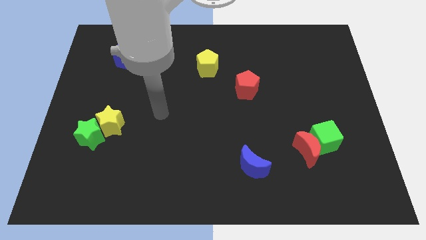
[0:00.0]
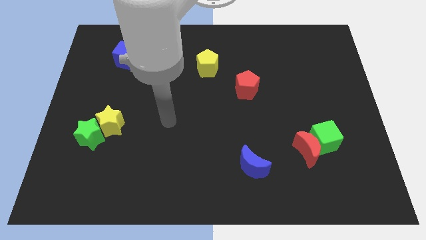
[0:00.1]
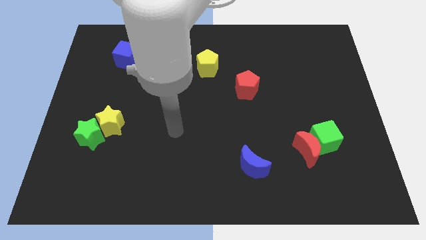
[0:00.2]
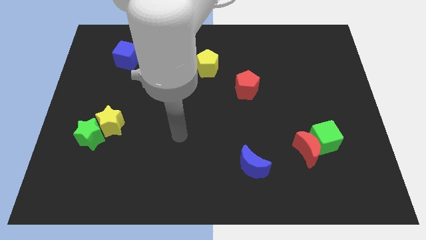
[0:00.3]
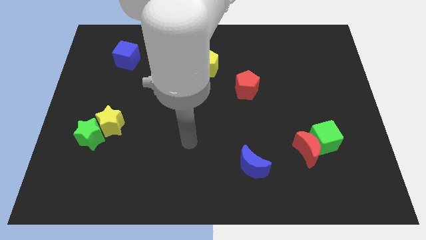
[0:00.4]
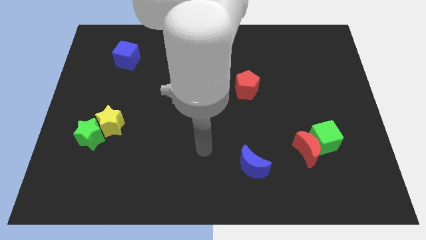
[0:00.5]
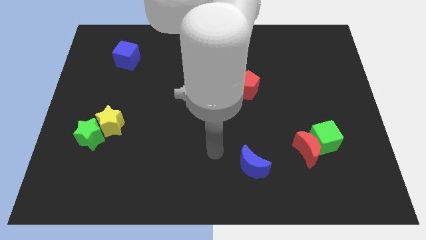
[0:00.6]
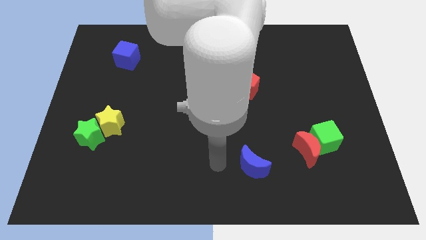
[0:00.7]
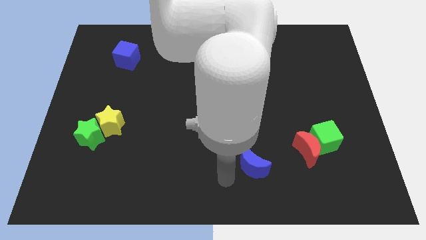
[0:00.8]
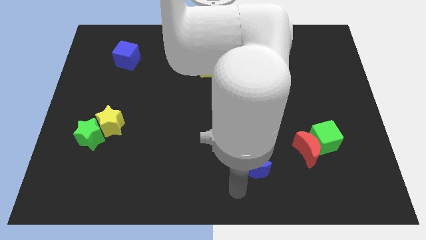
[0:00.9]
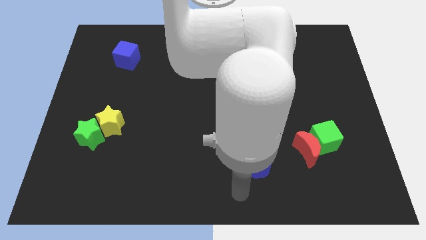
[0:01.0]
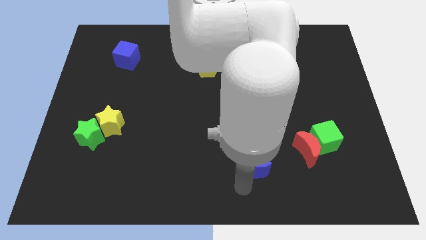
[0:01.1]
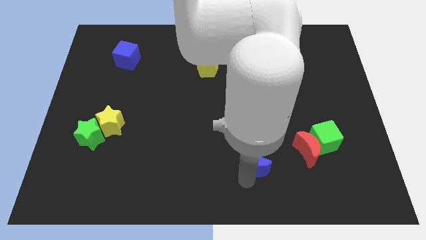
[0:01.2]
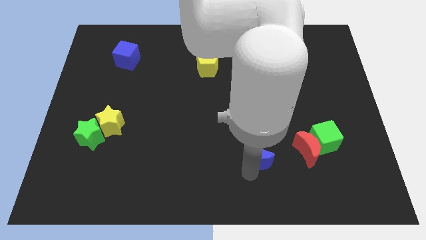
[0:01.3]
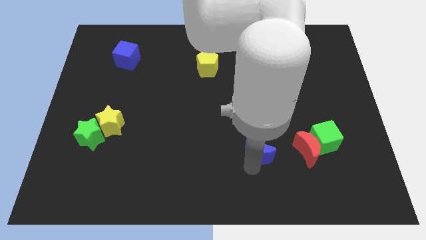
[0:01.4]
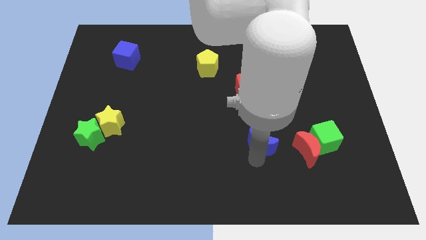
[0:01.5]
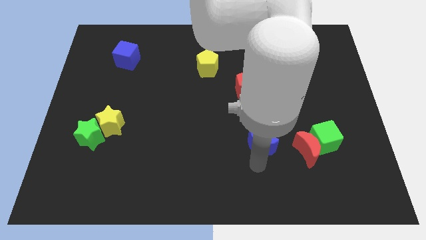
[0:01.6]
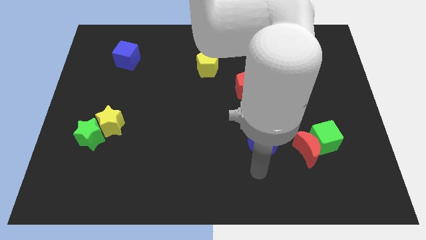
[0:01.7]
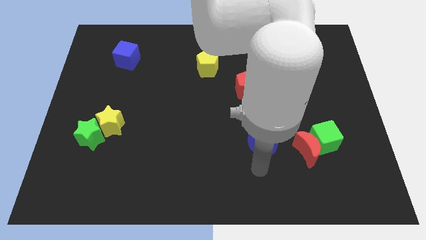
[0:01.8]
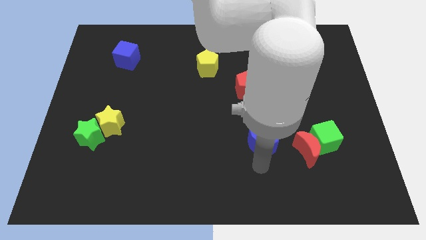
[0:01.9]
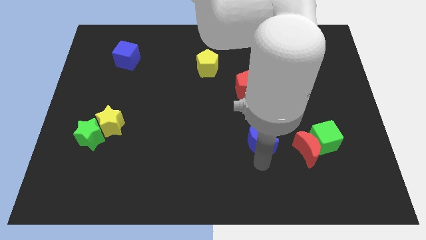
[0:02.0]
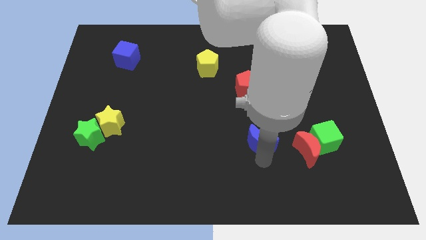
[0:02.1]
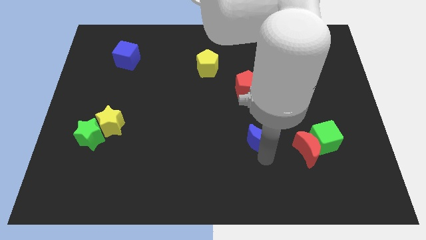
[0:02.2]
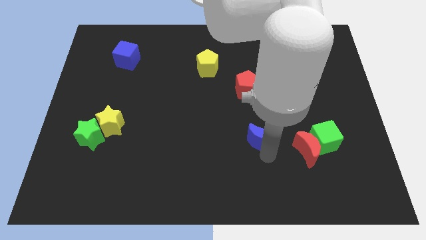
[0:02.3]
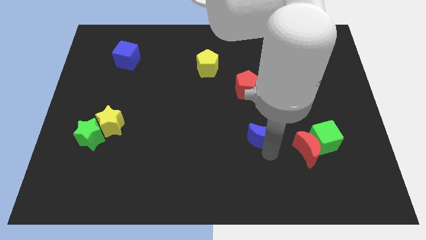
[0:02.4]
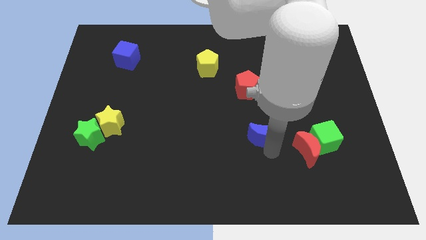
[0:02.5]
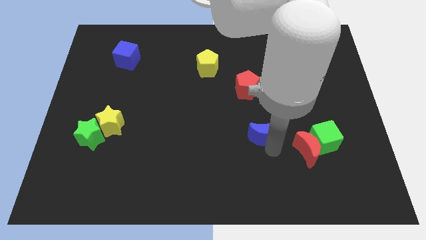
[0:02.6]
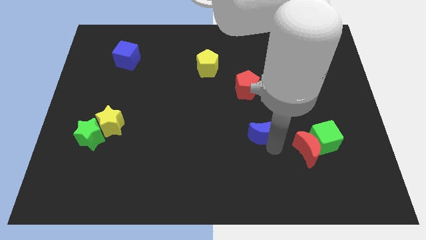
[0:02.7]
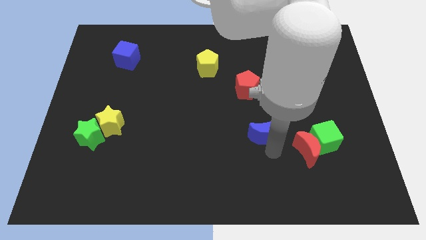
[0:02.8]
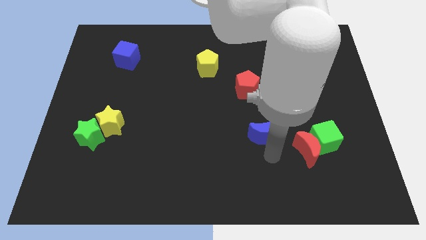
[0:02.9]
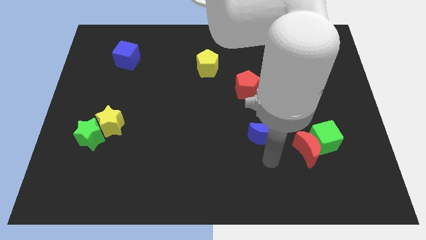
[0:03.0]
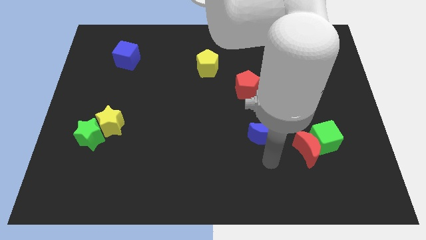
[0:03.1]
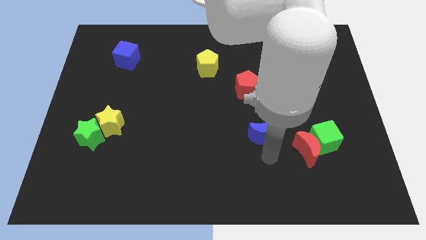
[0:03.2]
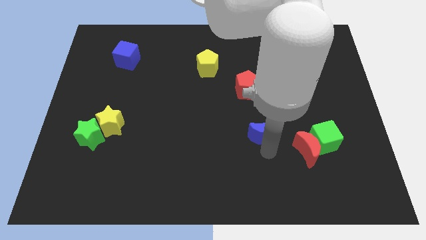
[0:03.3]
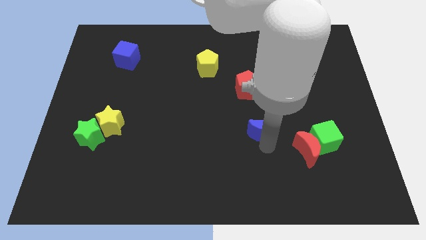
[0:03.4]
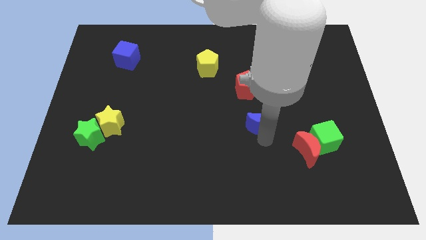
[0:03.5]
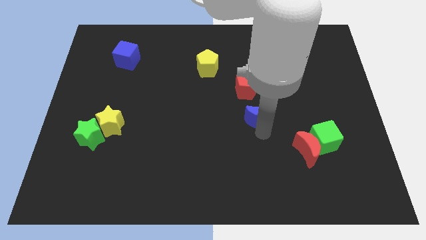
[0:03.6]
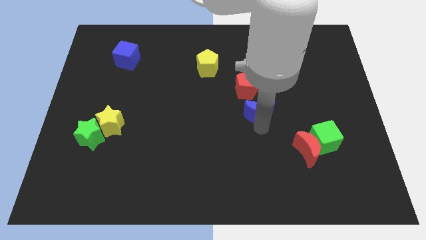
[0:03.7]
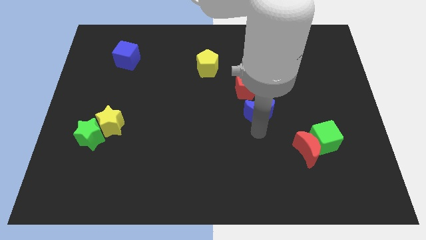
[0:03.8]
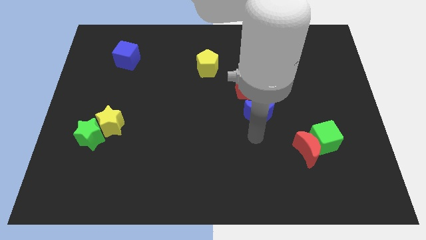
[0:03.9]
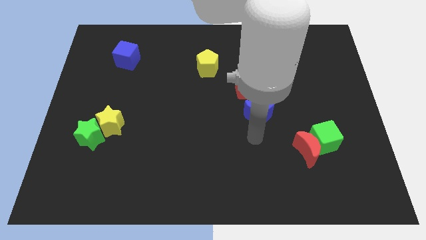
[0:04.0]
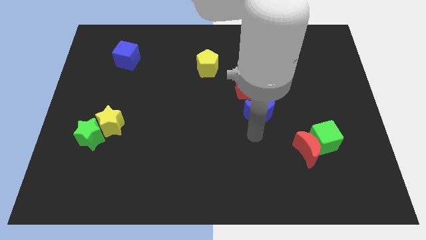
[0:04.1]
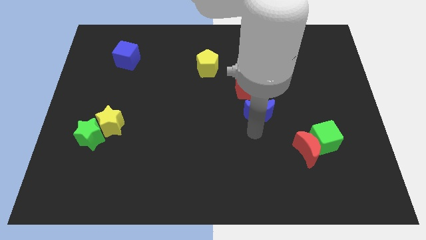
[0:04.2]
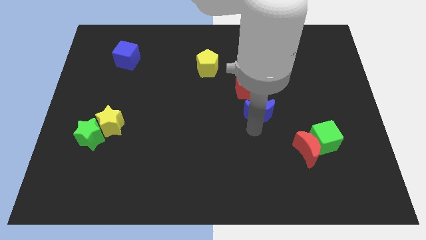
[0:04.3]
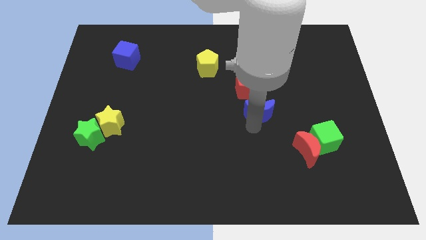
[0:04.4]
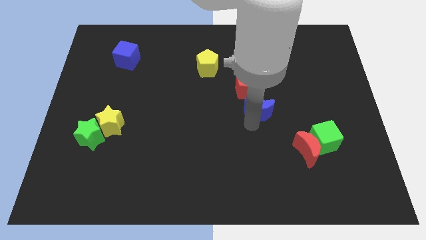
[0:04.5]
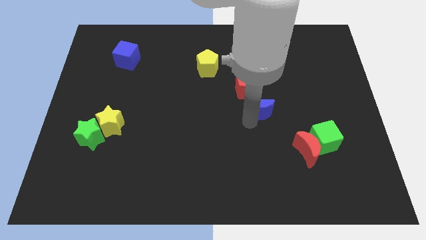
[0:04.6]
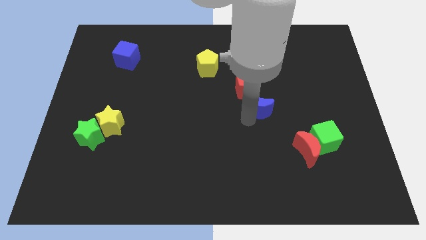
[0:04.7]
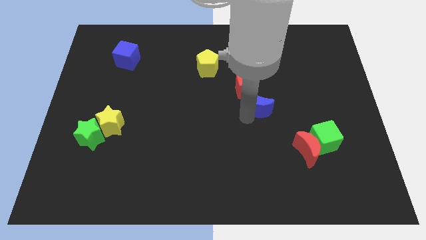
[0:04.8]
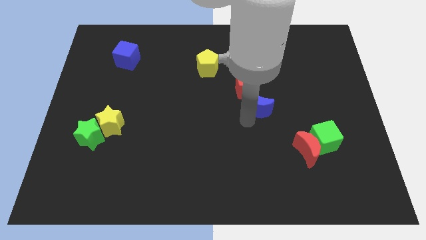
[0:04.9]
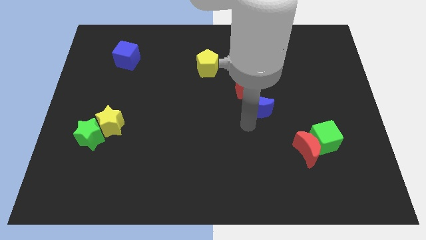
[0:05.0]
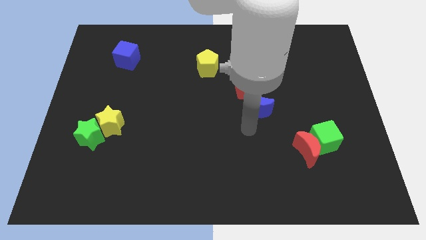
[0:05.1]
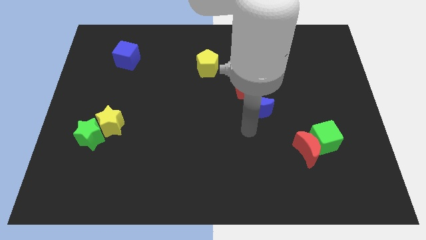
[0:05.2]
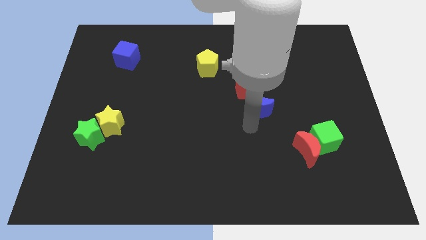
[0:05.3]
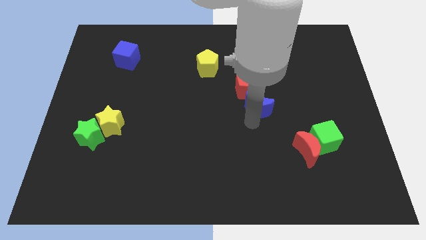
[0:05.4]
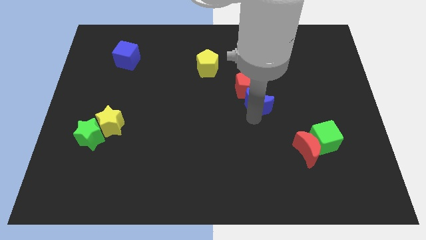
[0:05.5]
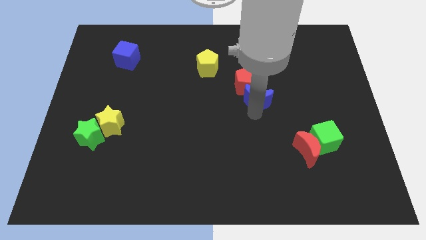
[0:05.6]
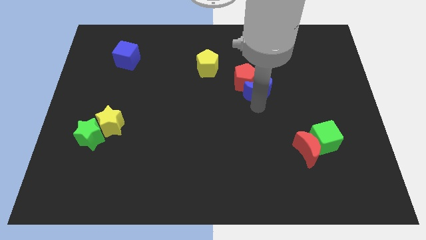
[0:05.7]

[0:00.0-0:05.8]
push the blue moon upwards

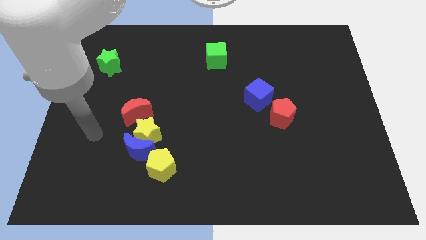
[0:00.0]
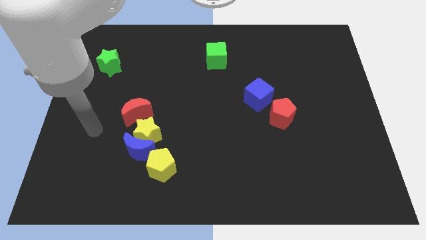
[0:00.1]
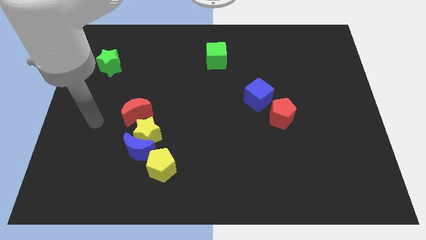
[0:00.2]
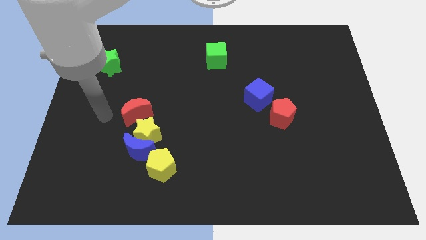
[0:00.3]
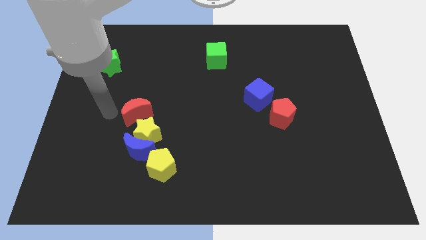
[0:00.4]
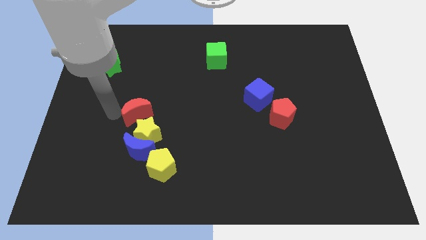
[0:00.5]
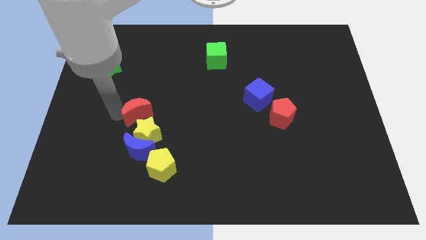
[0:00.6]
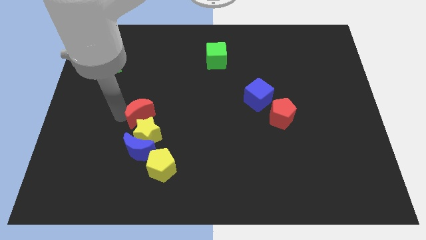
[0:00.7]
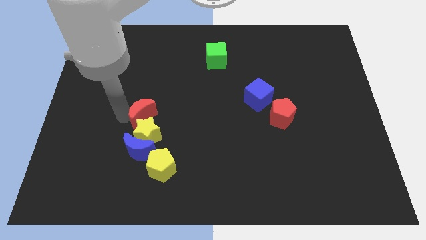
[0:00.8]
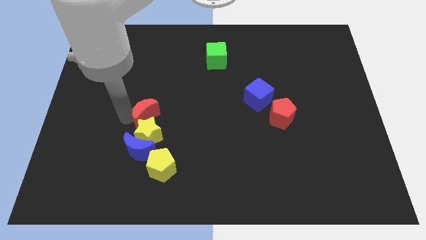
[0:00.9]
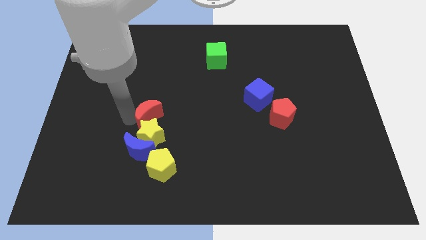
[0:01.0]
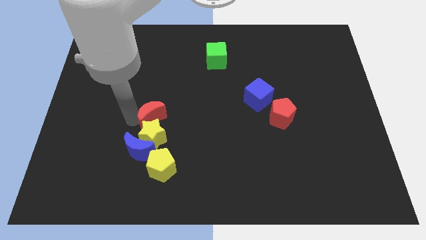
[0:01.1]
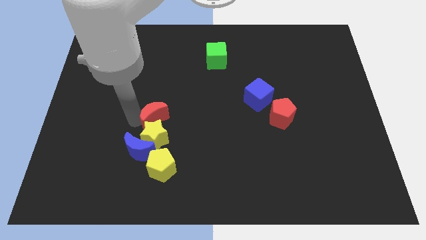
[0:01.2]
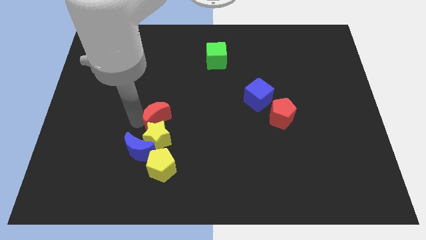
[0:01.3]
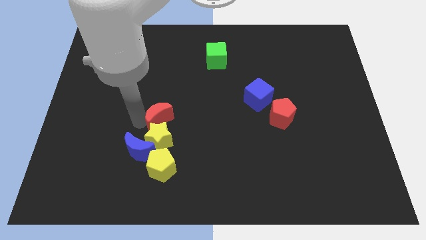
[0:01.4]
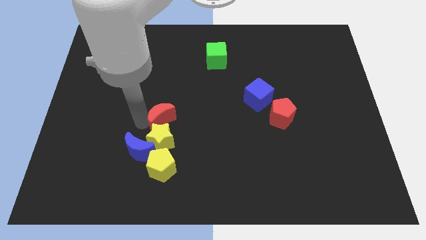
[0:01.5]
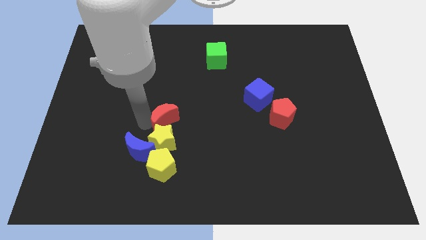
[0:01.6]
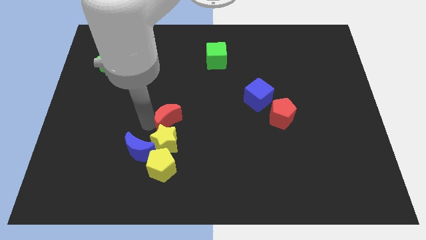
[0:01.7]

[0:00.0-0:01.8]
move the red moon somewhat to the right
